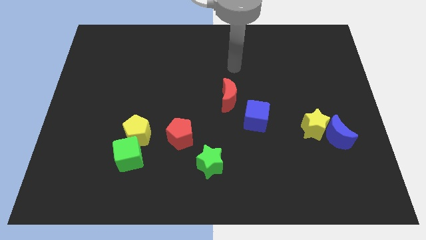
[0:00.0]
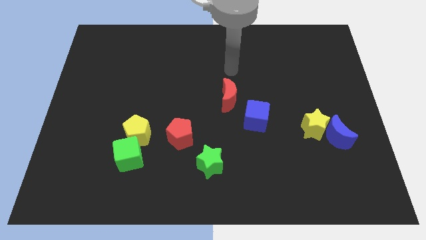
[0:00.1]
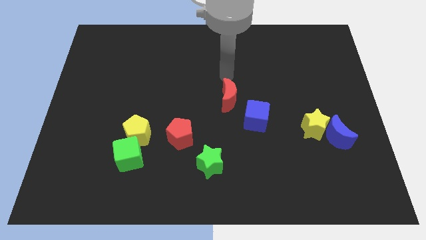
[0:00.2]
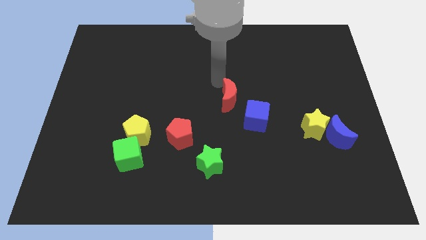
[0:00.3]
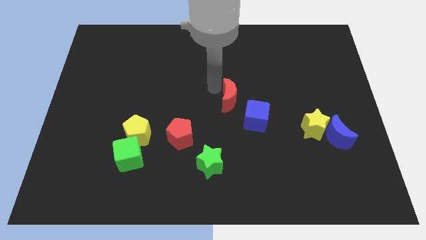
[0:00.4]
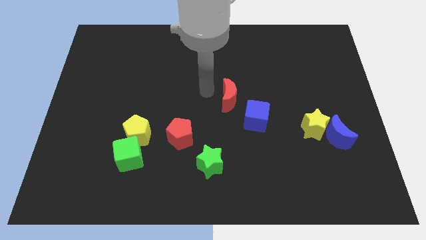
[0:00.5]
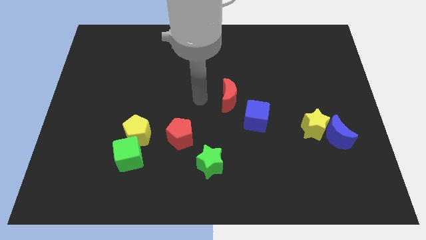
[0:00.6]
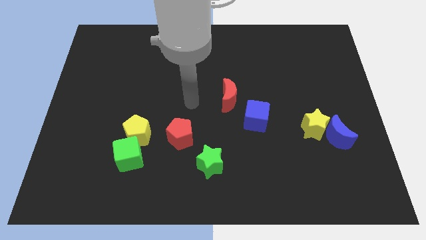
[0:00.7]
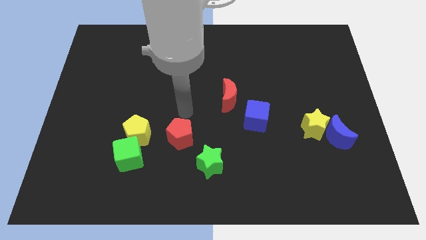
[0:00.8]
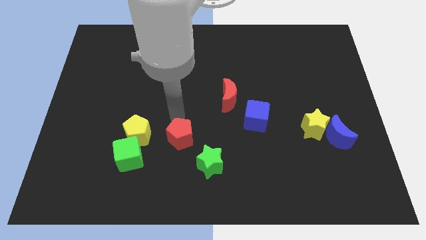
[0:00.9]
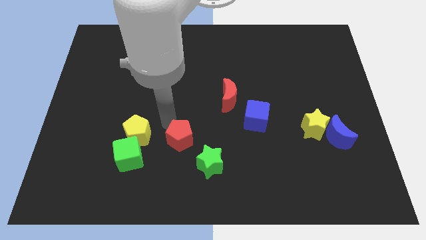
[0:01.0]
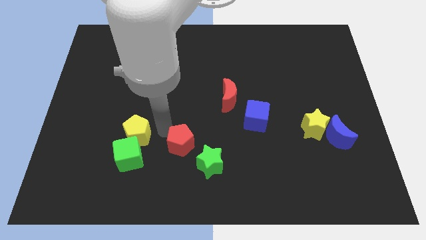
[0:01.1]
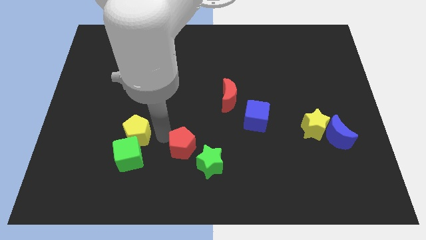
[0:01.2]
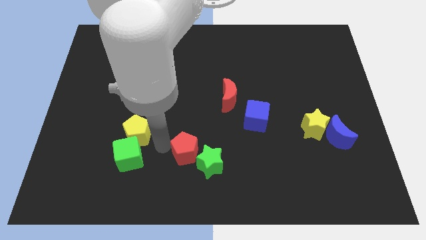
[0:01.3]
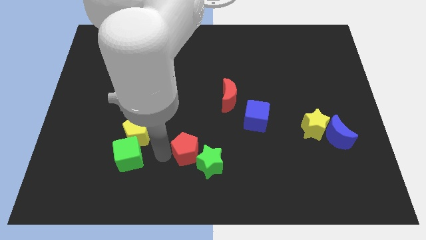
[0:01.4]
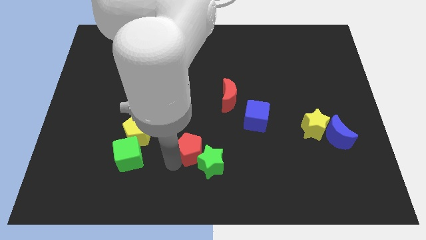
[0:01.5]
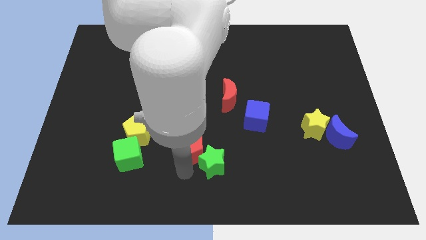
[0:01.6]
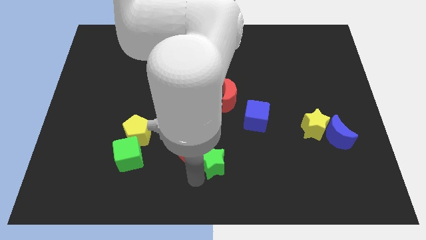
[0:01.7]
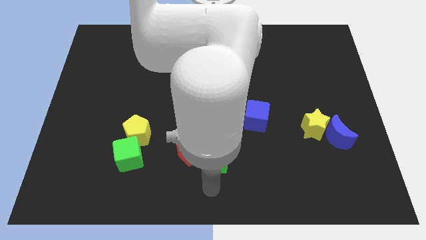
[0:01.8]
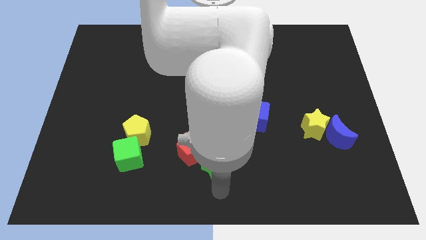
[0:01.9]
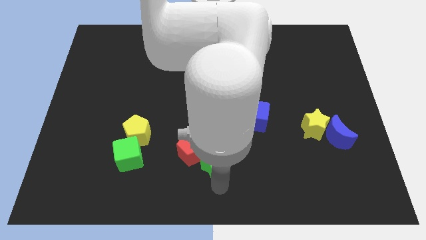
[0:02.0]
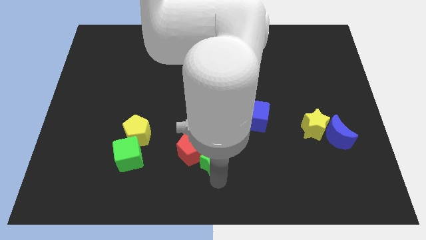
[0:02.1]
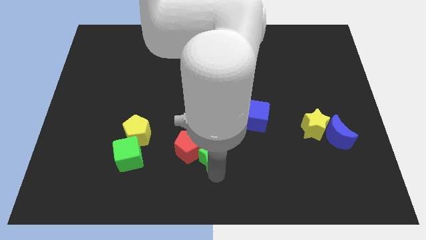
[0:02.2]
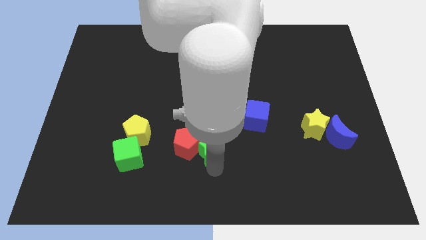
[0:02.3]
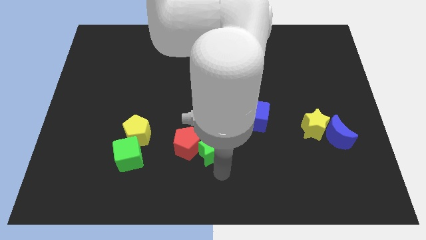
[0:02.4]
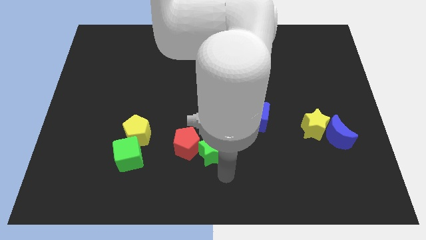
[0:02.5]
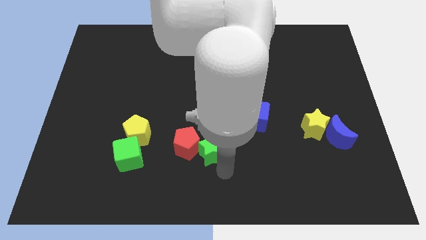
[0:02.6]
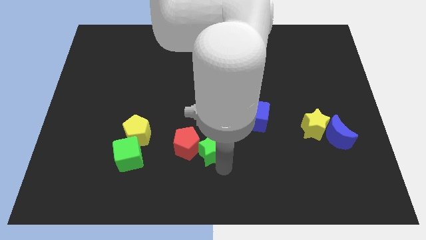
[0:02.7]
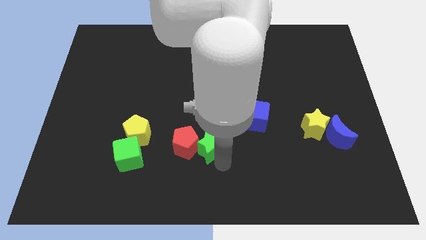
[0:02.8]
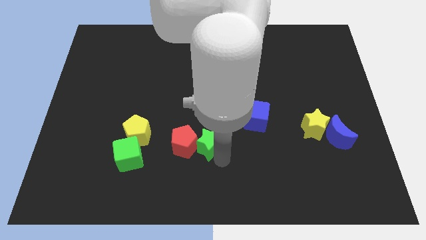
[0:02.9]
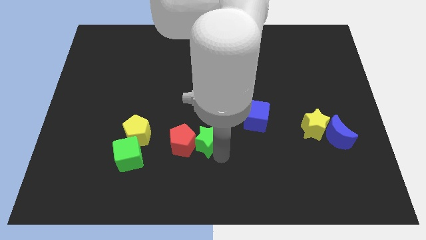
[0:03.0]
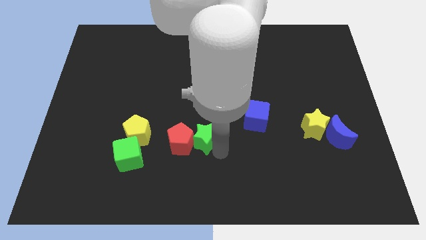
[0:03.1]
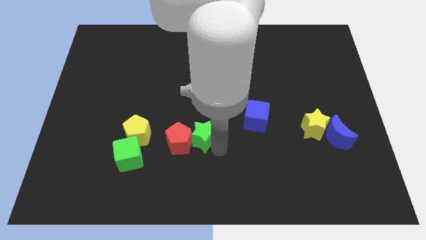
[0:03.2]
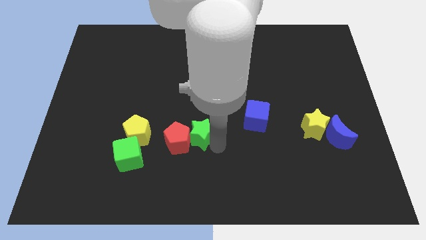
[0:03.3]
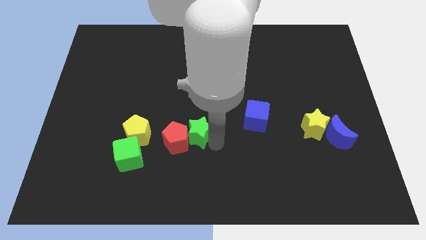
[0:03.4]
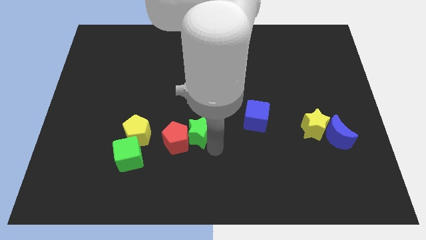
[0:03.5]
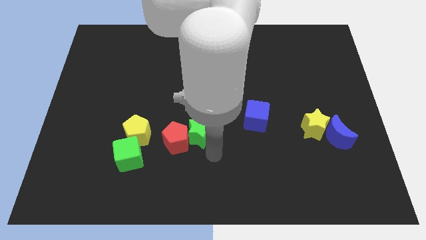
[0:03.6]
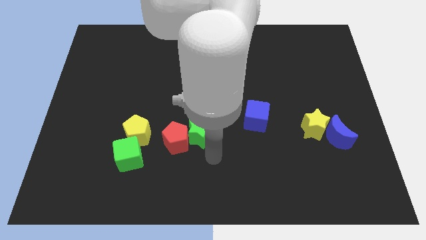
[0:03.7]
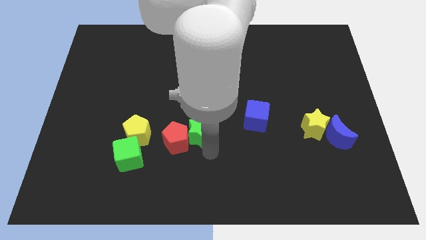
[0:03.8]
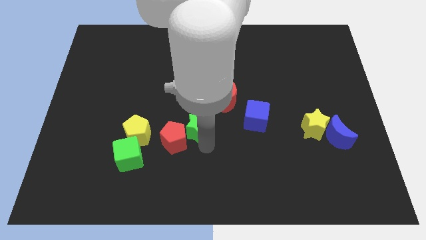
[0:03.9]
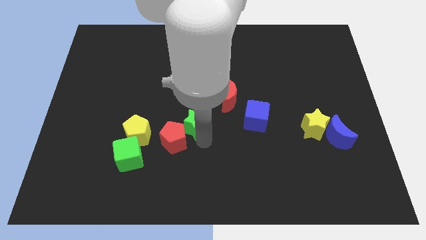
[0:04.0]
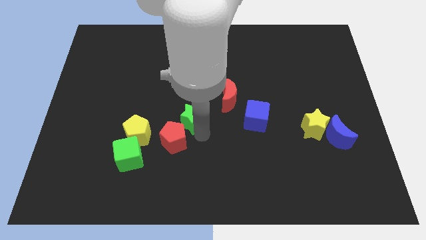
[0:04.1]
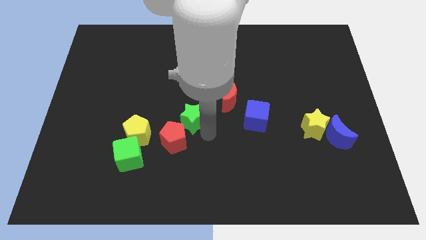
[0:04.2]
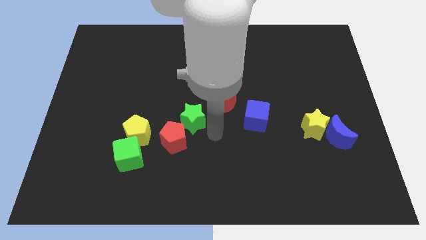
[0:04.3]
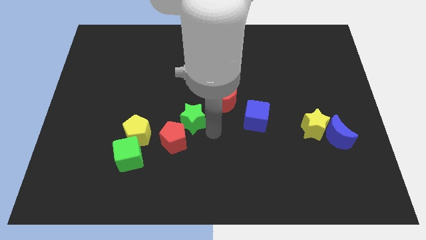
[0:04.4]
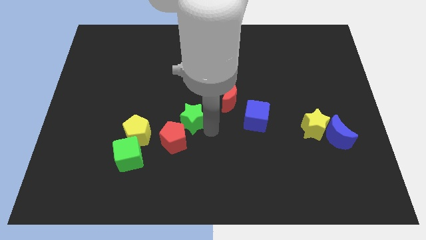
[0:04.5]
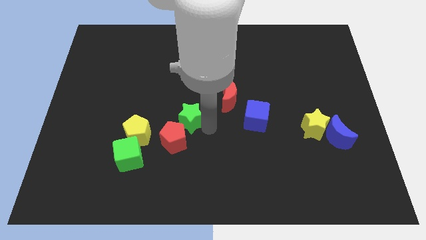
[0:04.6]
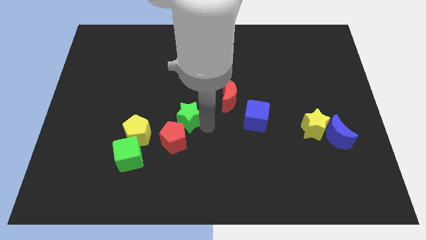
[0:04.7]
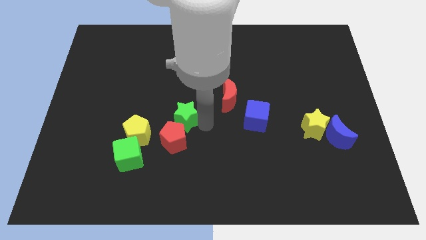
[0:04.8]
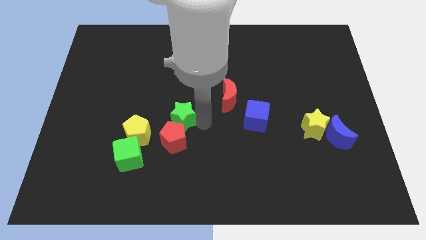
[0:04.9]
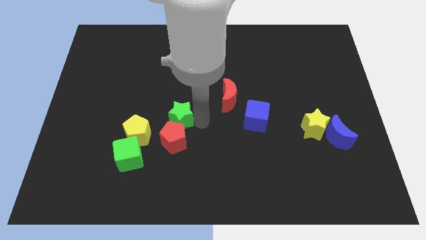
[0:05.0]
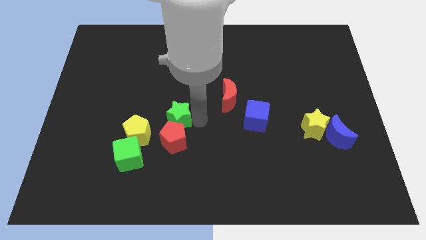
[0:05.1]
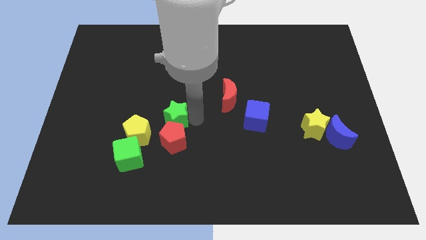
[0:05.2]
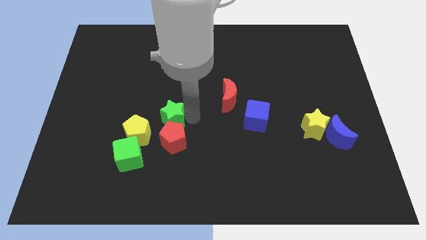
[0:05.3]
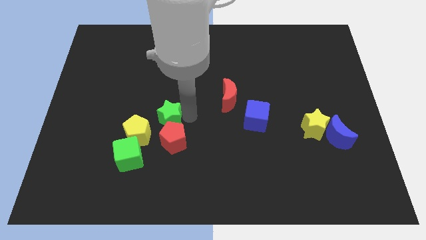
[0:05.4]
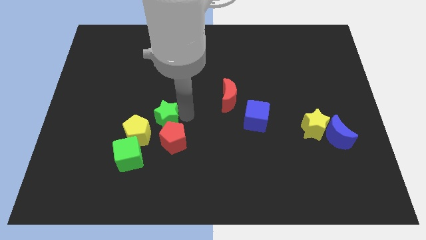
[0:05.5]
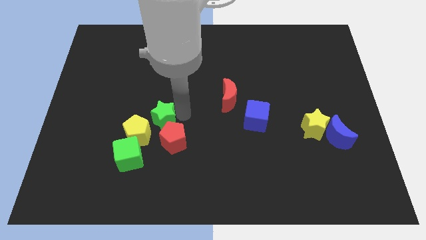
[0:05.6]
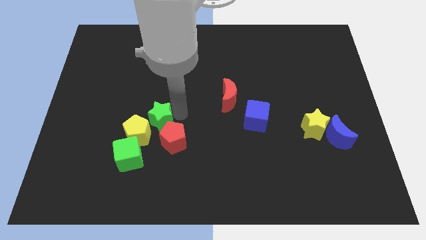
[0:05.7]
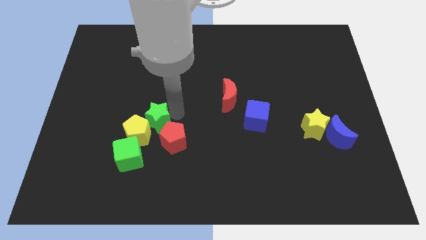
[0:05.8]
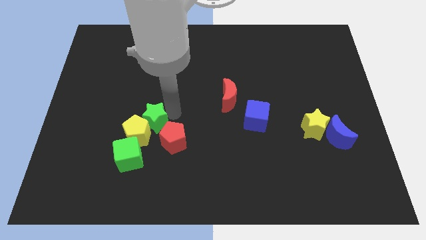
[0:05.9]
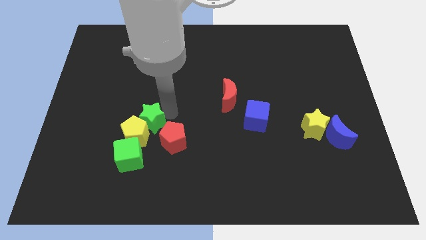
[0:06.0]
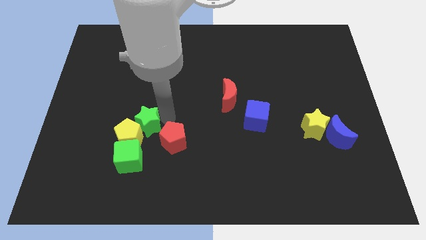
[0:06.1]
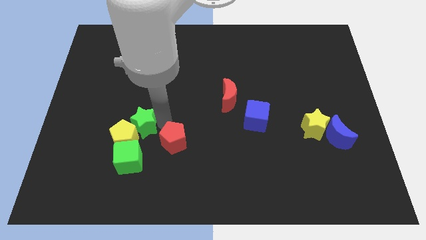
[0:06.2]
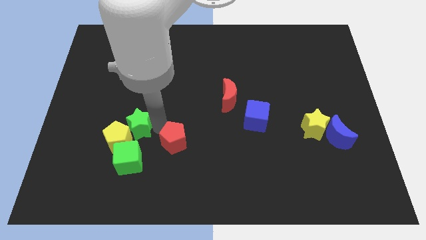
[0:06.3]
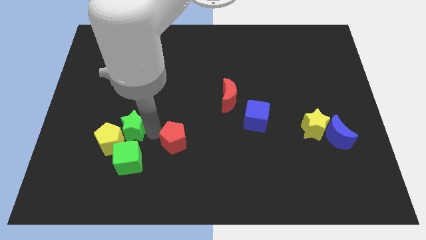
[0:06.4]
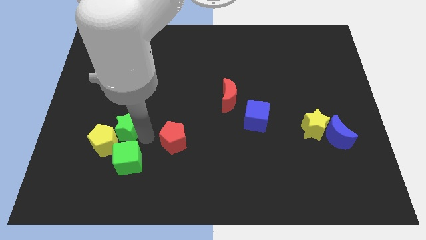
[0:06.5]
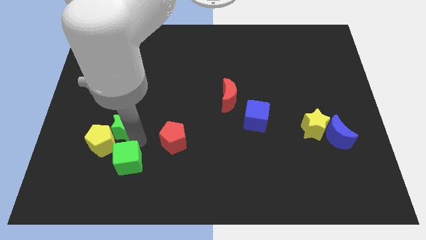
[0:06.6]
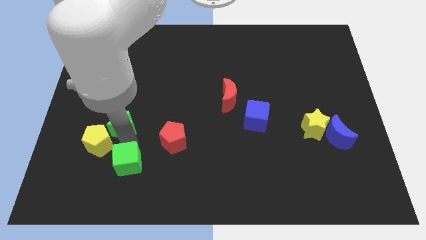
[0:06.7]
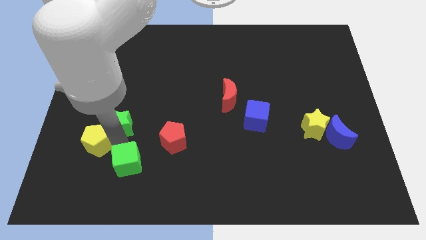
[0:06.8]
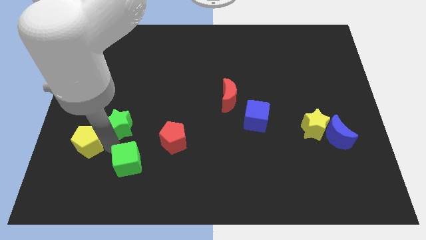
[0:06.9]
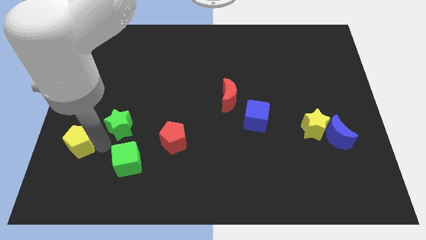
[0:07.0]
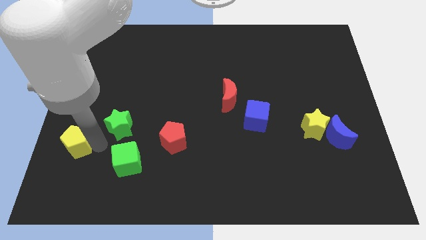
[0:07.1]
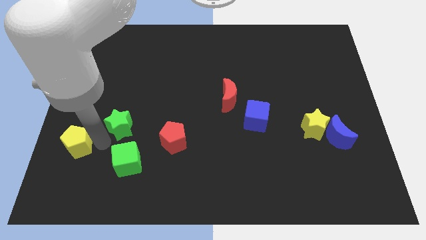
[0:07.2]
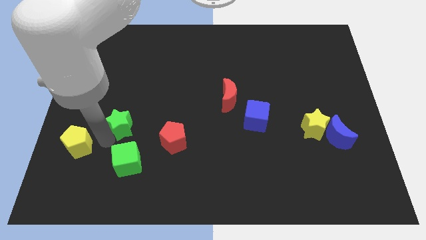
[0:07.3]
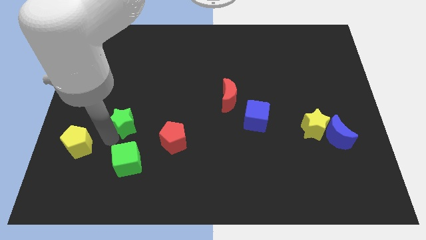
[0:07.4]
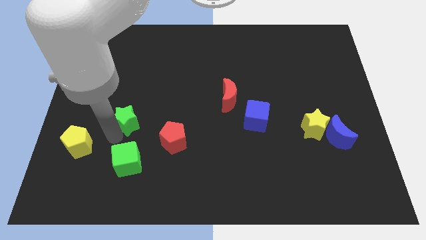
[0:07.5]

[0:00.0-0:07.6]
slide the green star diagonally up and left

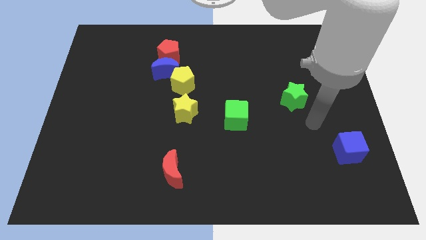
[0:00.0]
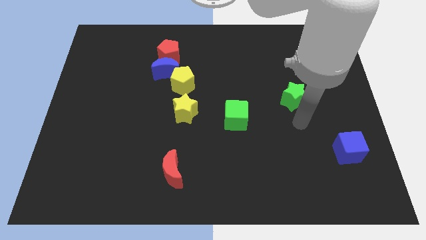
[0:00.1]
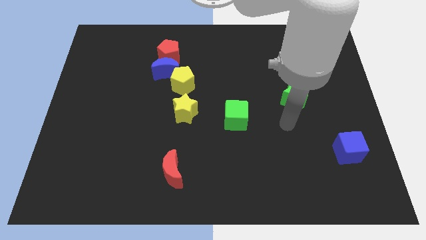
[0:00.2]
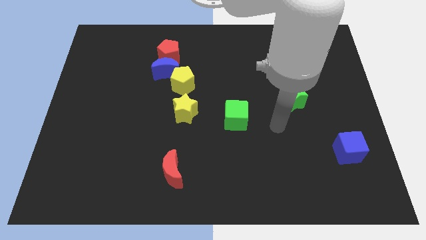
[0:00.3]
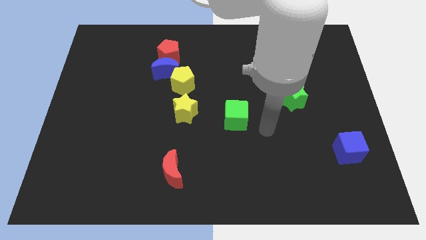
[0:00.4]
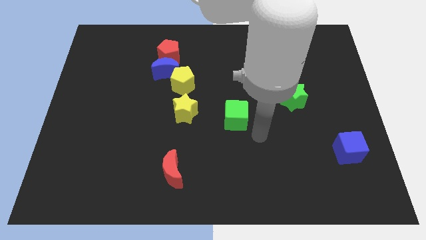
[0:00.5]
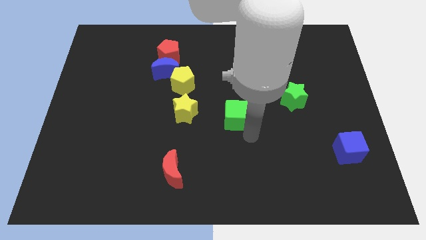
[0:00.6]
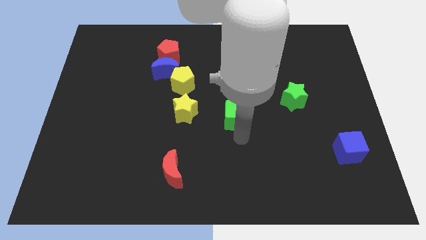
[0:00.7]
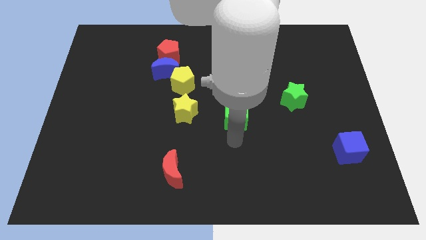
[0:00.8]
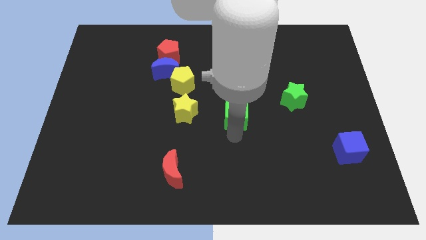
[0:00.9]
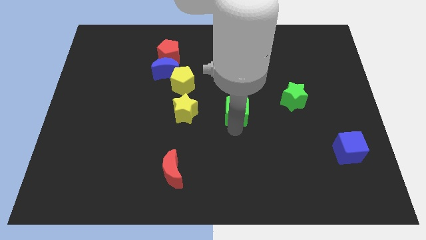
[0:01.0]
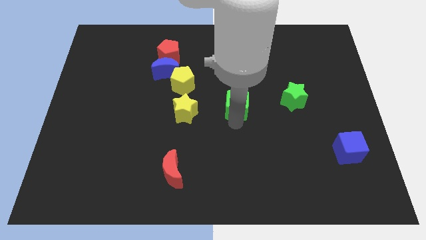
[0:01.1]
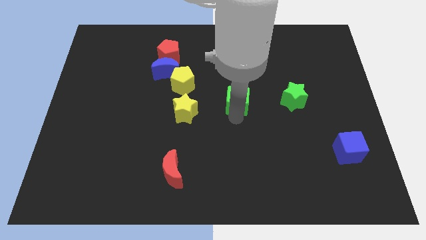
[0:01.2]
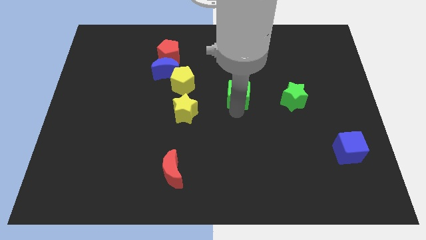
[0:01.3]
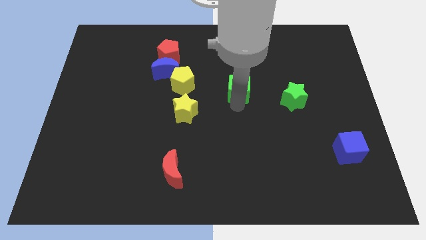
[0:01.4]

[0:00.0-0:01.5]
move the green cube a little bit up
